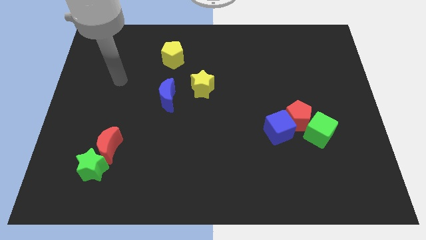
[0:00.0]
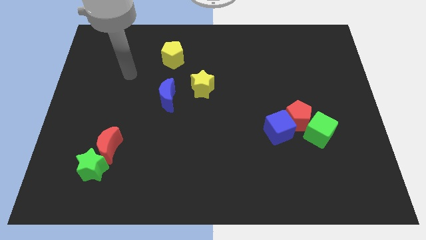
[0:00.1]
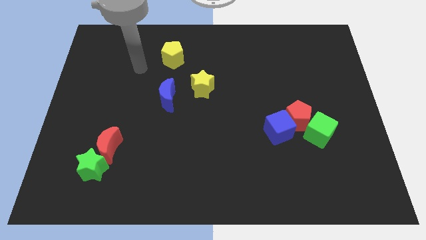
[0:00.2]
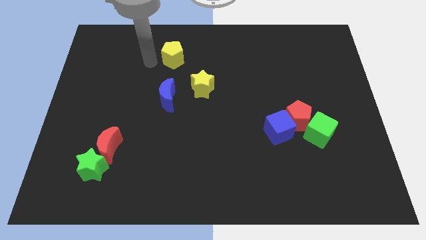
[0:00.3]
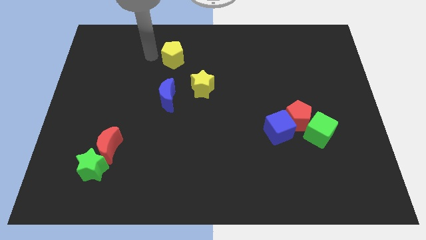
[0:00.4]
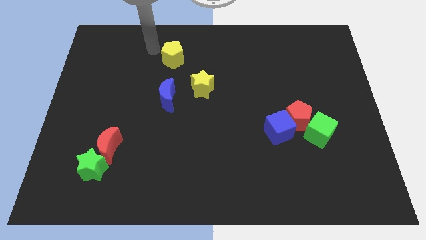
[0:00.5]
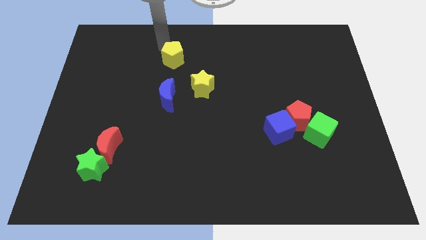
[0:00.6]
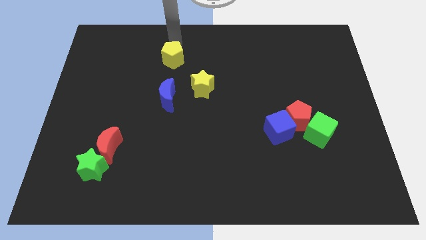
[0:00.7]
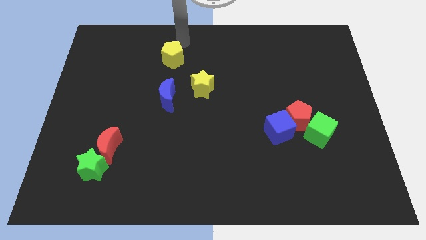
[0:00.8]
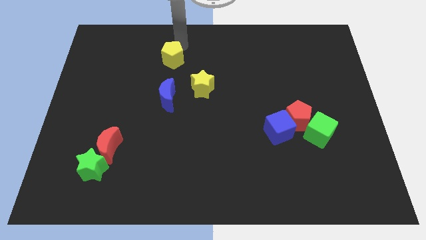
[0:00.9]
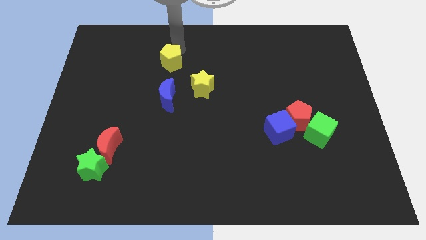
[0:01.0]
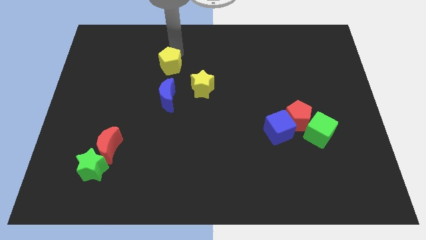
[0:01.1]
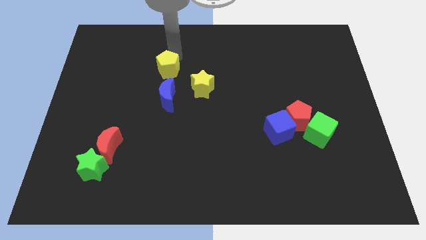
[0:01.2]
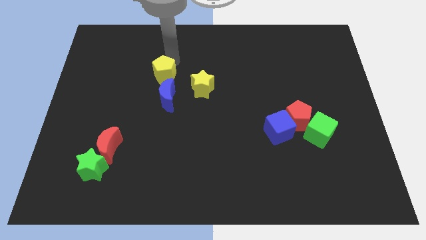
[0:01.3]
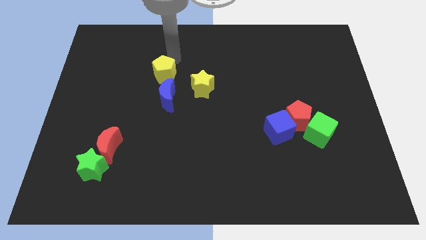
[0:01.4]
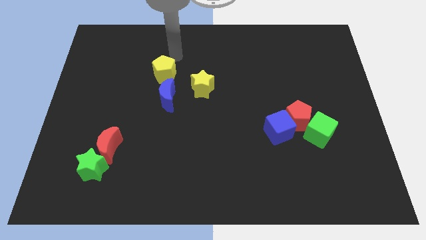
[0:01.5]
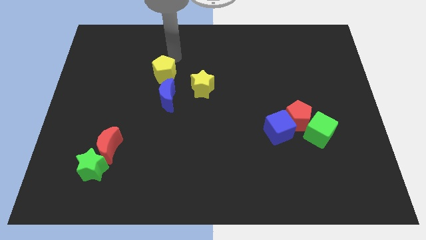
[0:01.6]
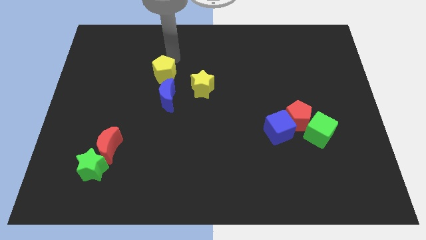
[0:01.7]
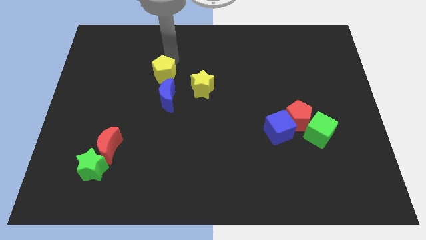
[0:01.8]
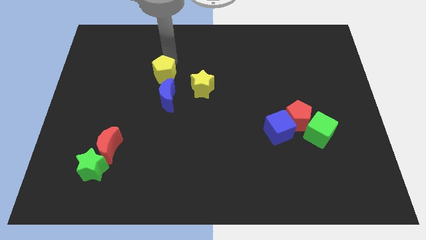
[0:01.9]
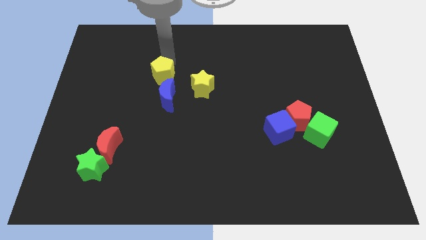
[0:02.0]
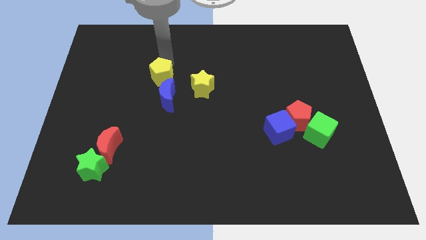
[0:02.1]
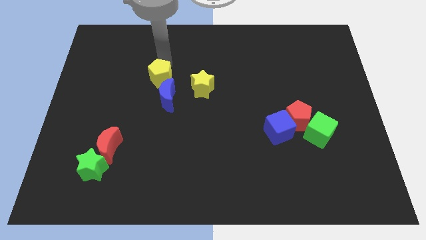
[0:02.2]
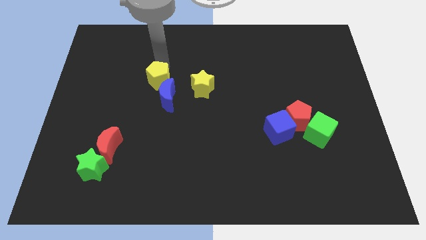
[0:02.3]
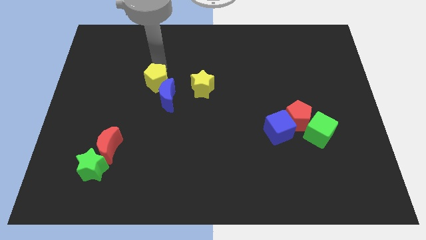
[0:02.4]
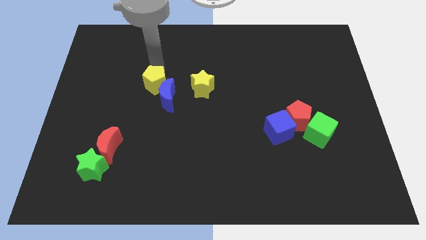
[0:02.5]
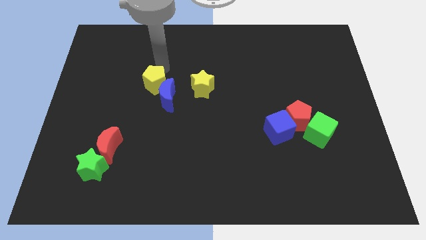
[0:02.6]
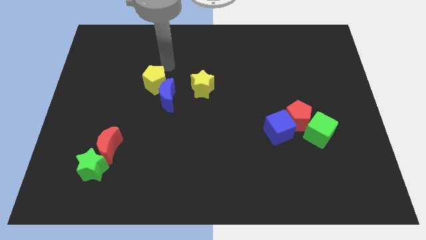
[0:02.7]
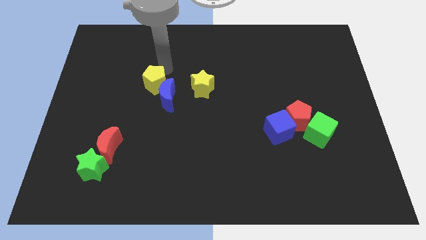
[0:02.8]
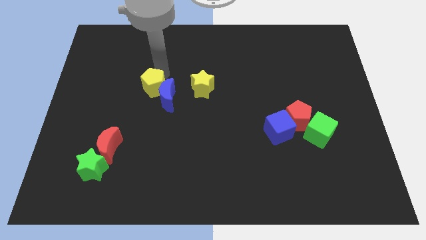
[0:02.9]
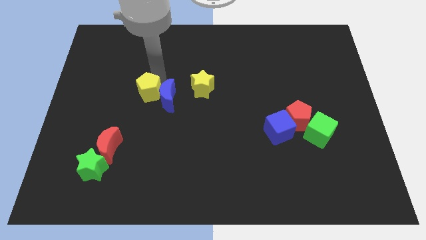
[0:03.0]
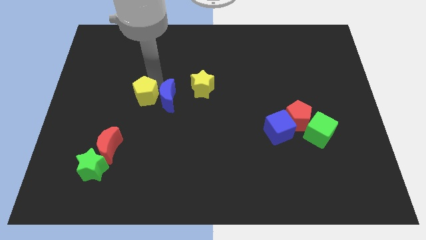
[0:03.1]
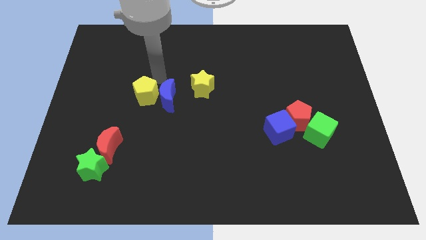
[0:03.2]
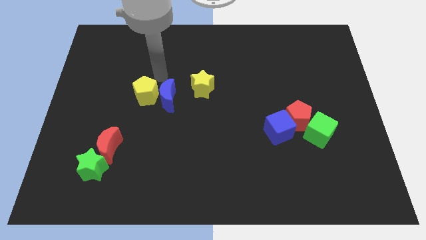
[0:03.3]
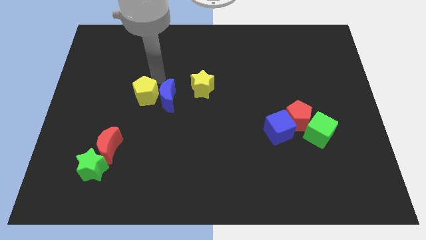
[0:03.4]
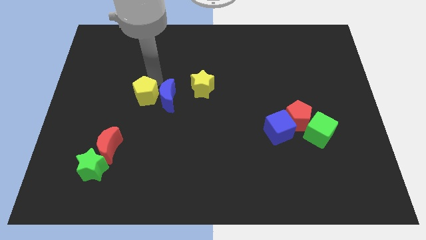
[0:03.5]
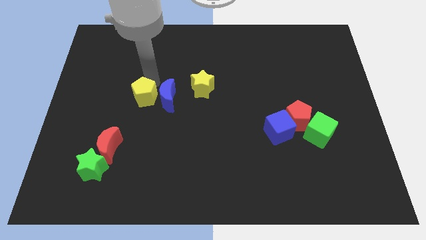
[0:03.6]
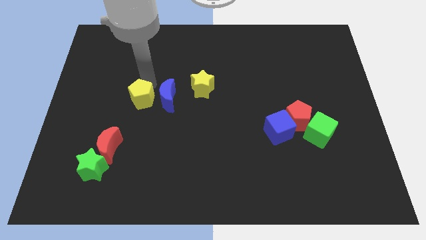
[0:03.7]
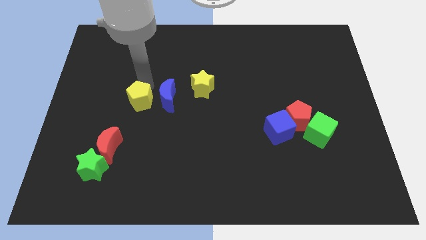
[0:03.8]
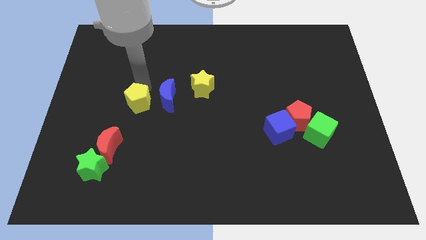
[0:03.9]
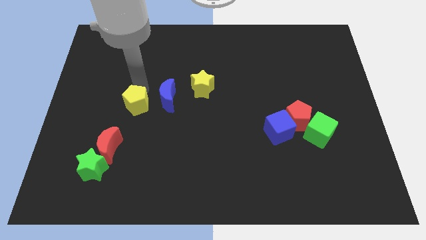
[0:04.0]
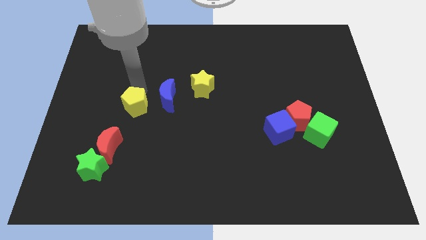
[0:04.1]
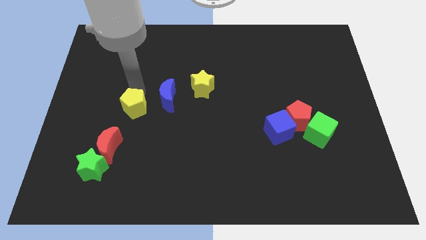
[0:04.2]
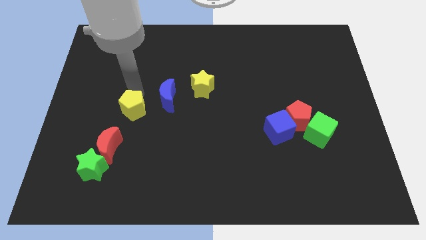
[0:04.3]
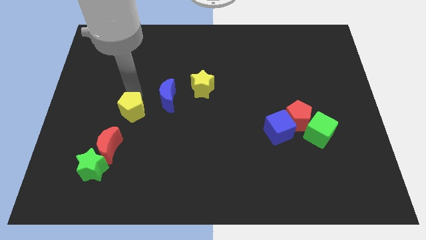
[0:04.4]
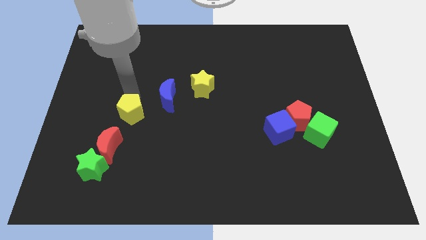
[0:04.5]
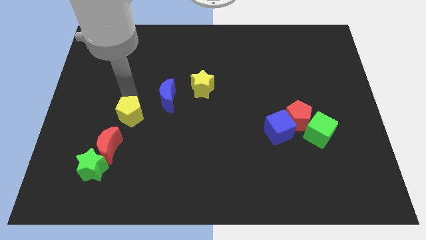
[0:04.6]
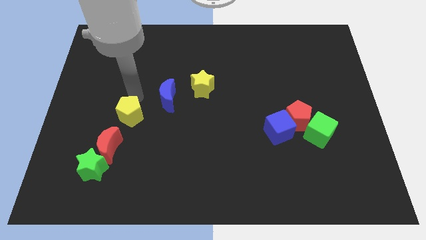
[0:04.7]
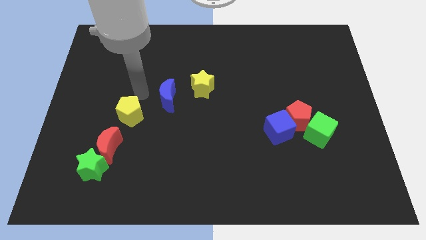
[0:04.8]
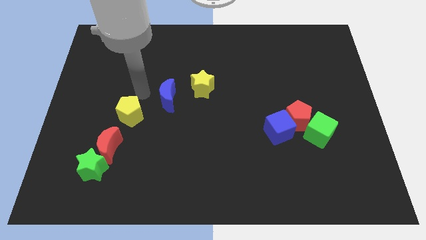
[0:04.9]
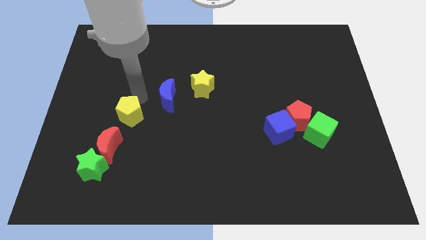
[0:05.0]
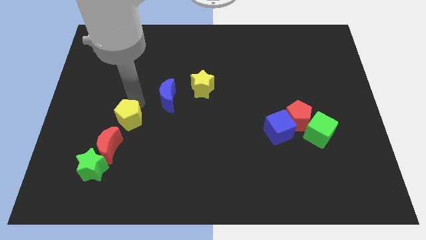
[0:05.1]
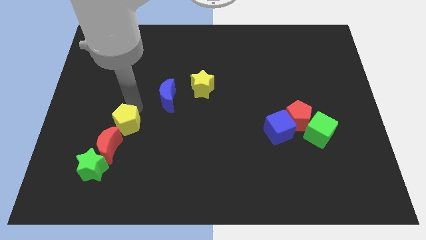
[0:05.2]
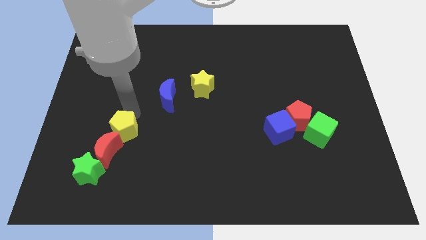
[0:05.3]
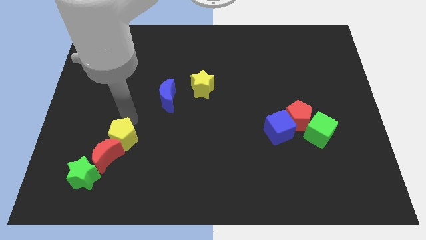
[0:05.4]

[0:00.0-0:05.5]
slide the yellow pentagon towards the red moon

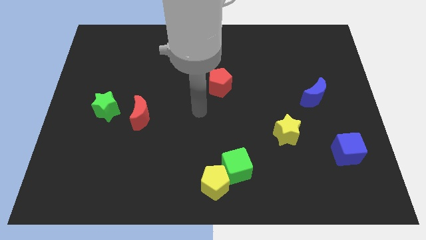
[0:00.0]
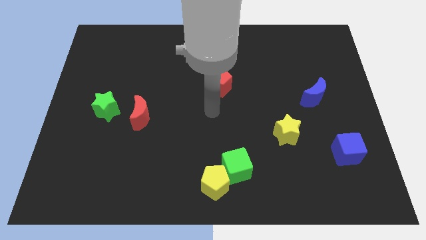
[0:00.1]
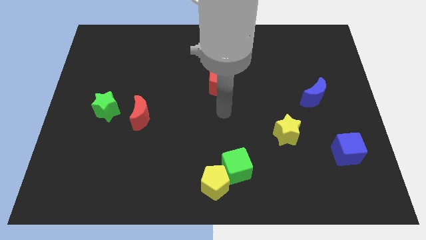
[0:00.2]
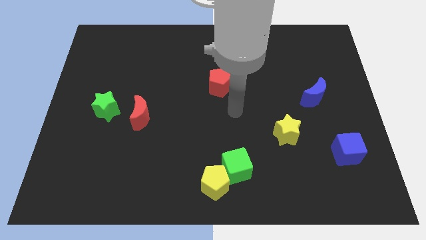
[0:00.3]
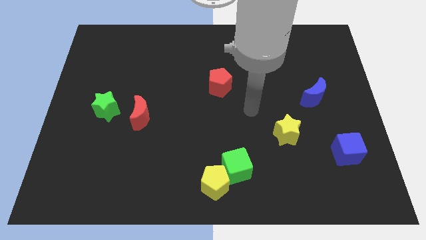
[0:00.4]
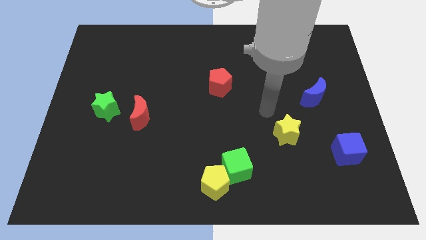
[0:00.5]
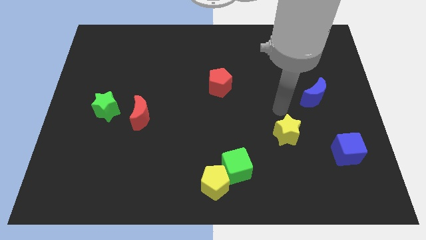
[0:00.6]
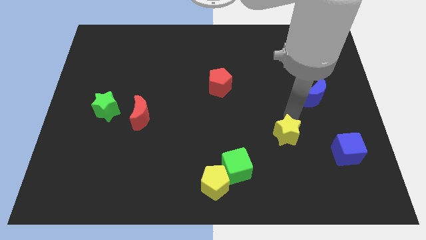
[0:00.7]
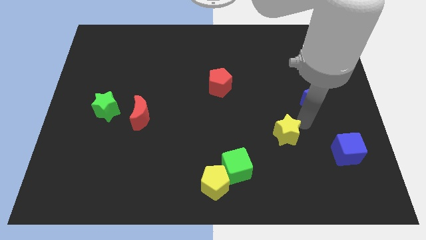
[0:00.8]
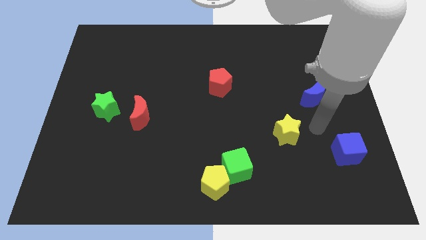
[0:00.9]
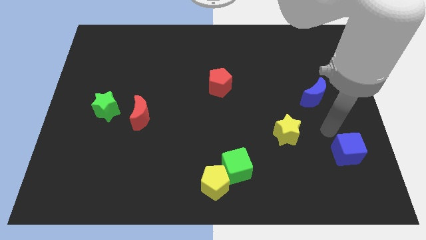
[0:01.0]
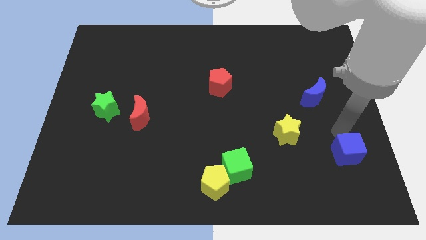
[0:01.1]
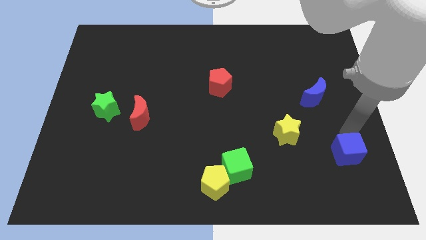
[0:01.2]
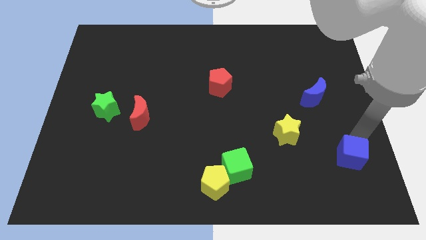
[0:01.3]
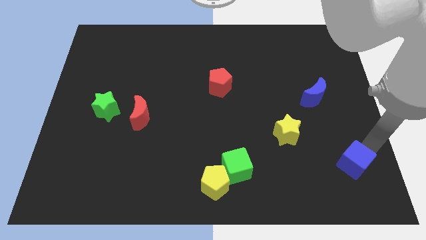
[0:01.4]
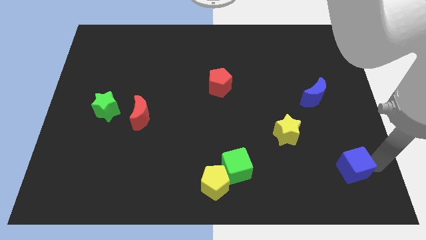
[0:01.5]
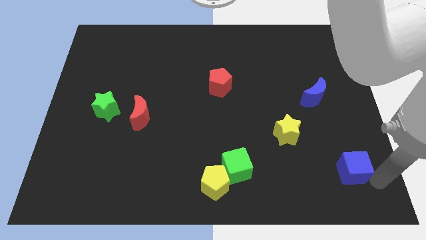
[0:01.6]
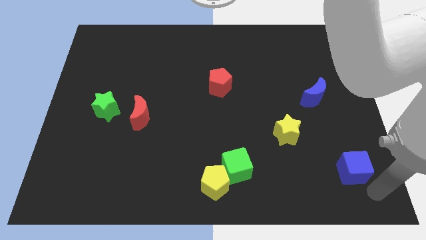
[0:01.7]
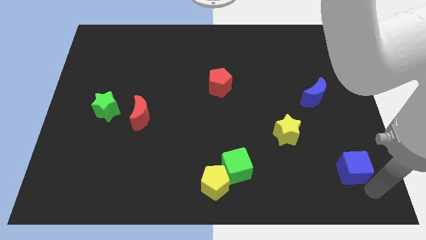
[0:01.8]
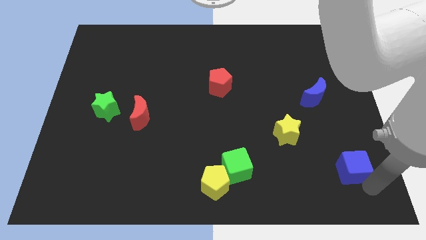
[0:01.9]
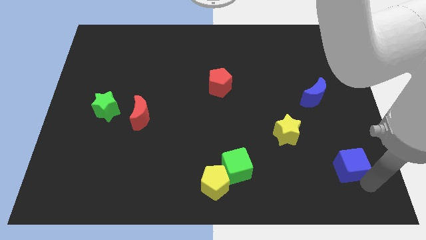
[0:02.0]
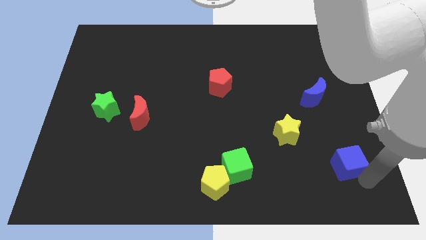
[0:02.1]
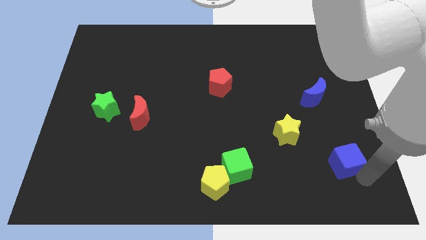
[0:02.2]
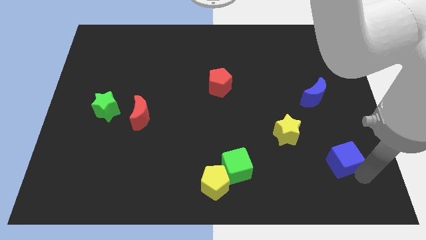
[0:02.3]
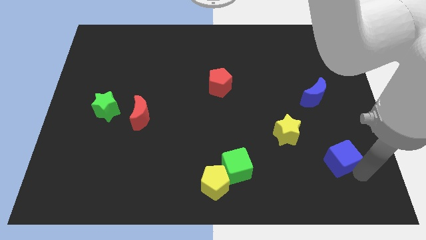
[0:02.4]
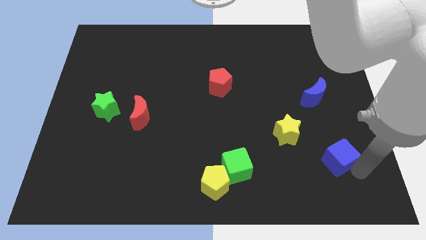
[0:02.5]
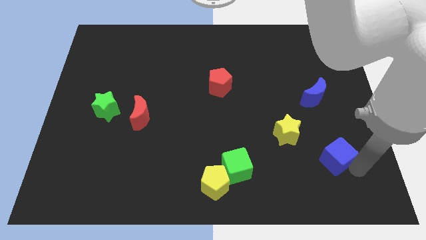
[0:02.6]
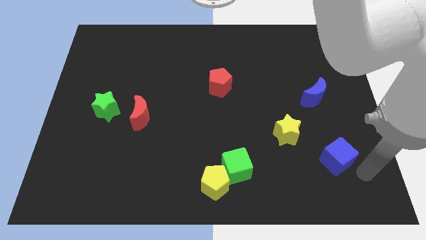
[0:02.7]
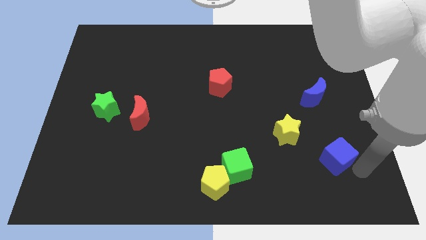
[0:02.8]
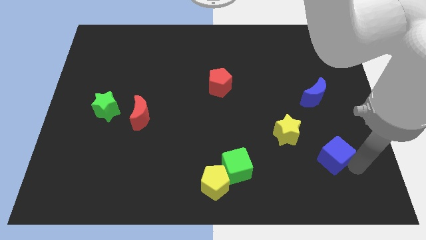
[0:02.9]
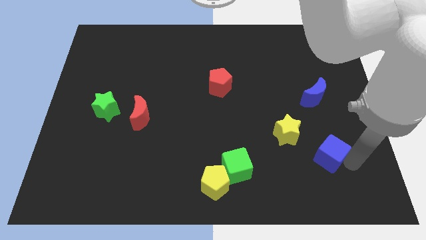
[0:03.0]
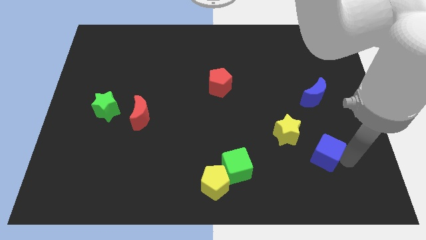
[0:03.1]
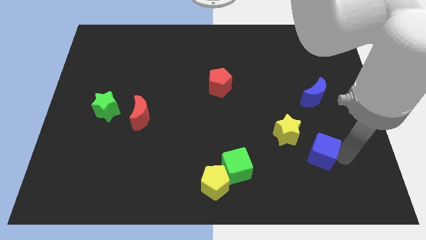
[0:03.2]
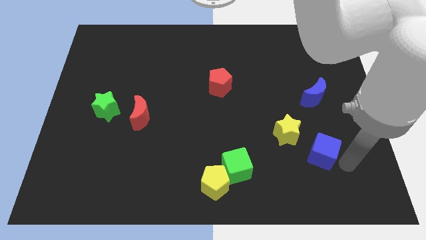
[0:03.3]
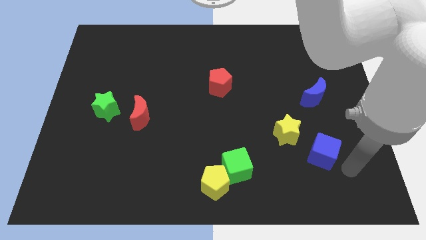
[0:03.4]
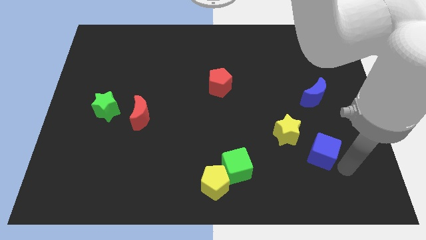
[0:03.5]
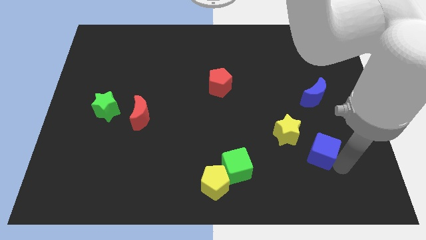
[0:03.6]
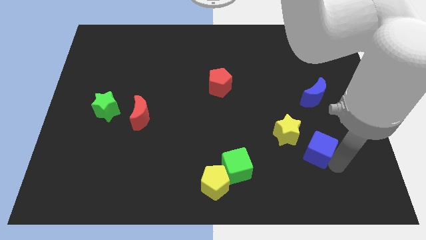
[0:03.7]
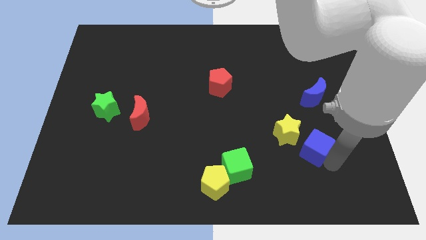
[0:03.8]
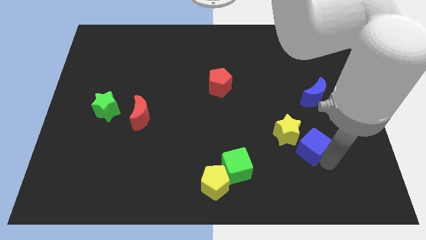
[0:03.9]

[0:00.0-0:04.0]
push the blue cube next to the yellow star
